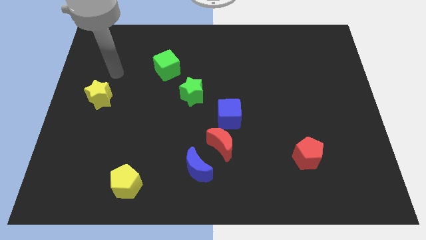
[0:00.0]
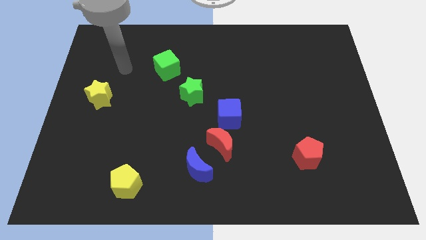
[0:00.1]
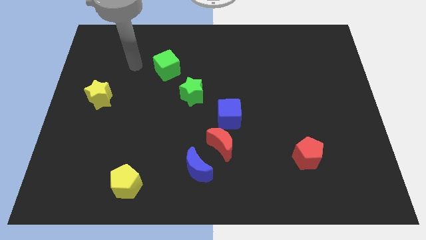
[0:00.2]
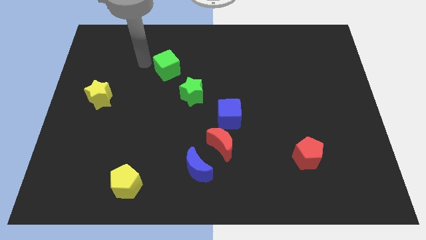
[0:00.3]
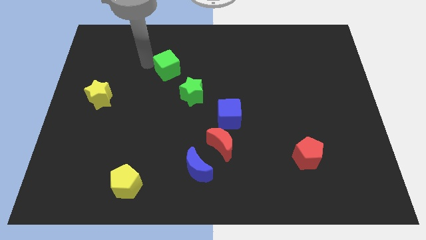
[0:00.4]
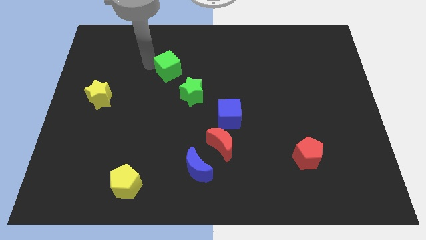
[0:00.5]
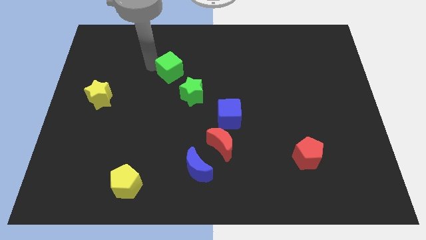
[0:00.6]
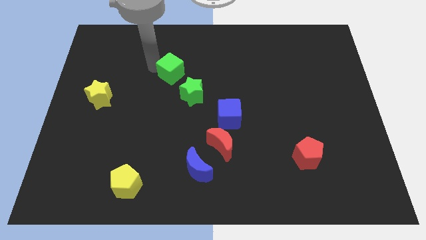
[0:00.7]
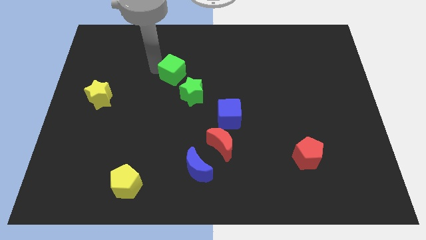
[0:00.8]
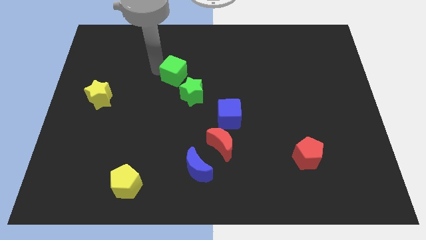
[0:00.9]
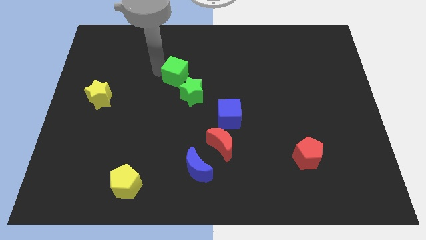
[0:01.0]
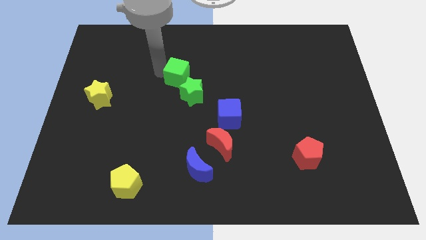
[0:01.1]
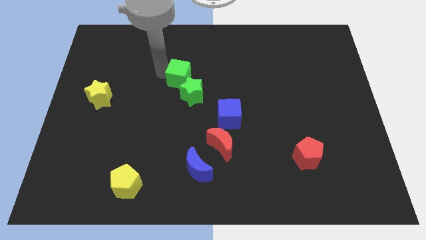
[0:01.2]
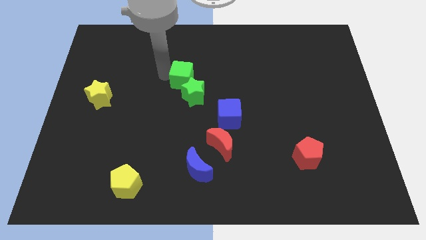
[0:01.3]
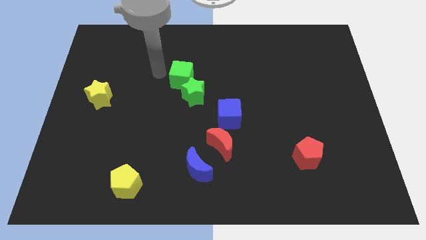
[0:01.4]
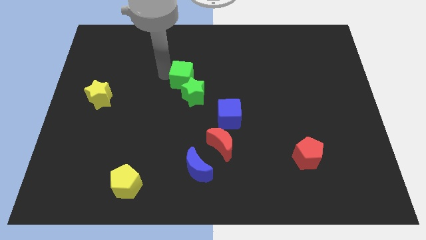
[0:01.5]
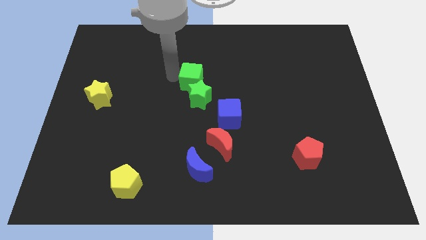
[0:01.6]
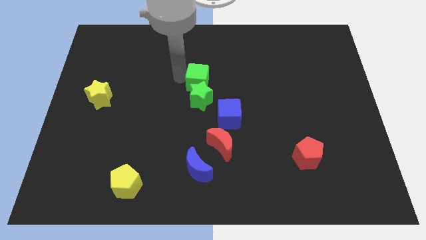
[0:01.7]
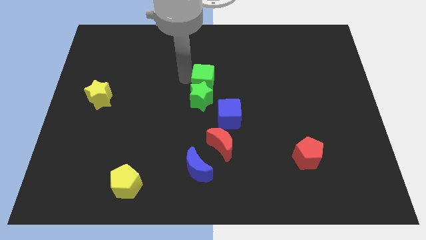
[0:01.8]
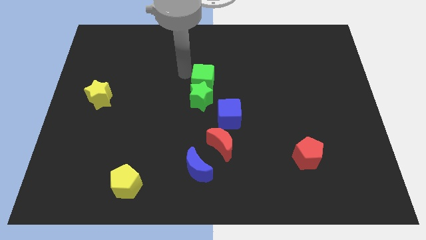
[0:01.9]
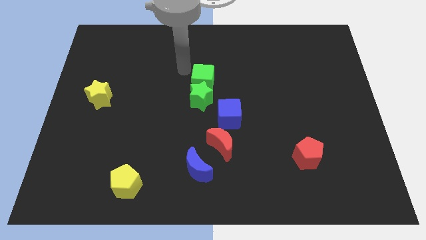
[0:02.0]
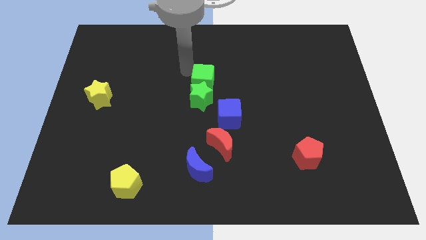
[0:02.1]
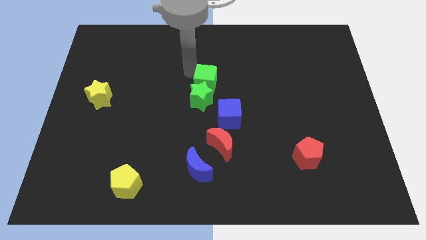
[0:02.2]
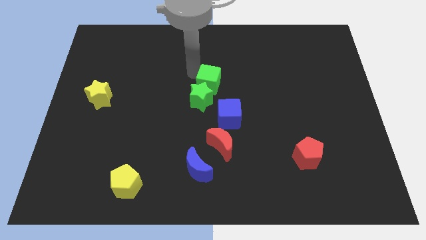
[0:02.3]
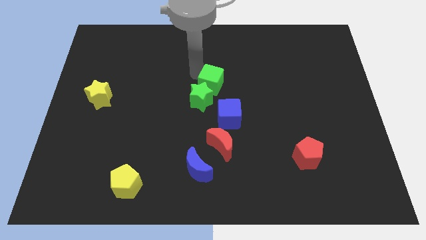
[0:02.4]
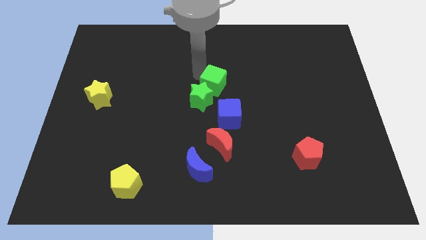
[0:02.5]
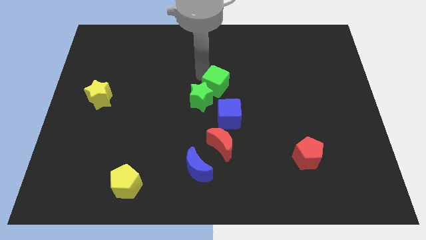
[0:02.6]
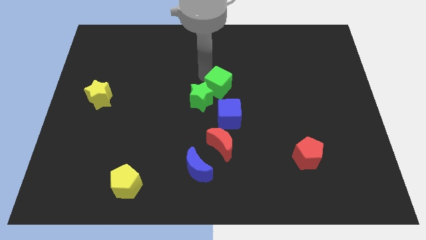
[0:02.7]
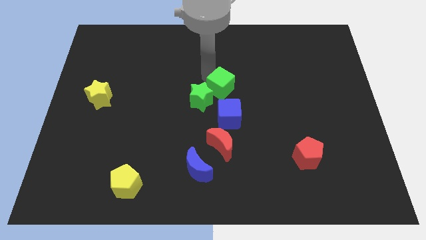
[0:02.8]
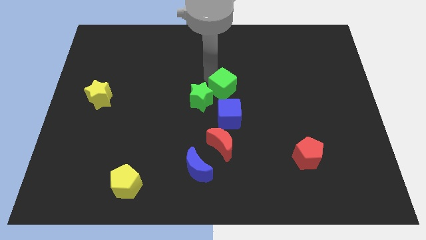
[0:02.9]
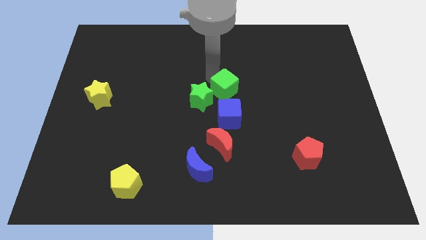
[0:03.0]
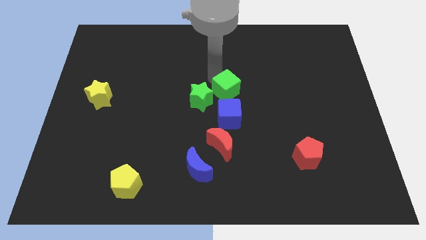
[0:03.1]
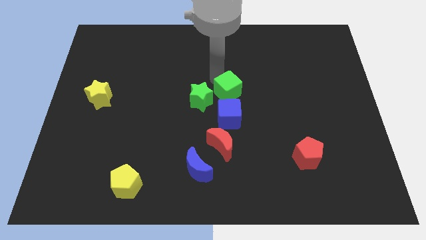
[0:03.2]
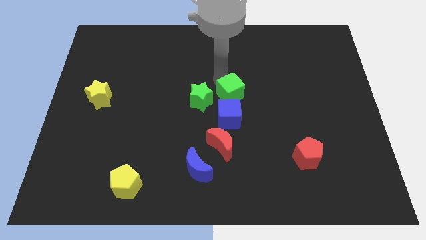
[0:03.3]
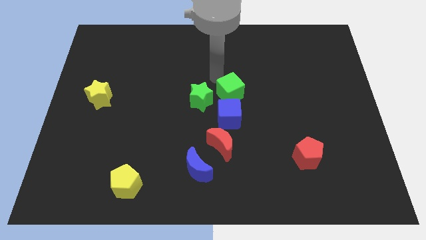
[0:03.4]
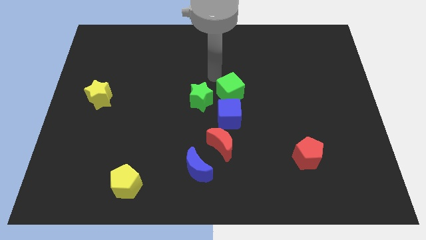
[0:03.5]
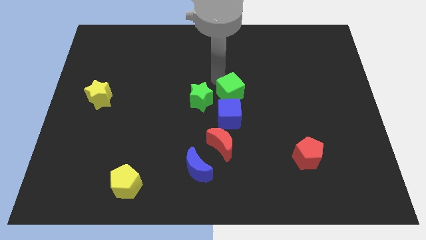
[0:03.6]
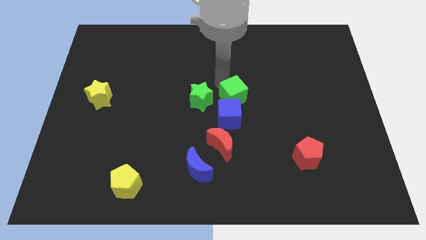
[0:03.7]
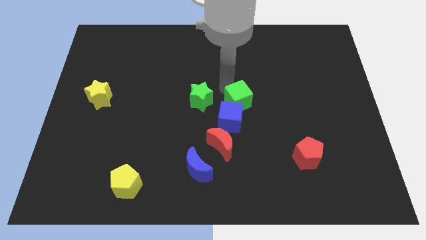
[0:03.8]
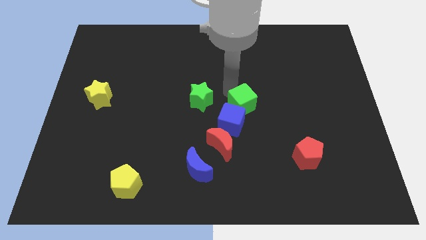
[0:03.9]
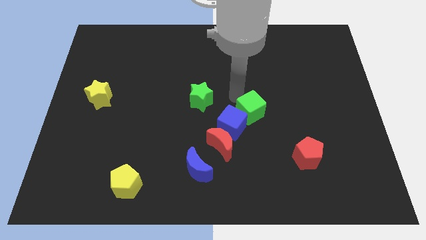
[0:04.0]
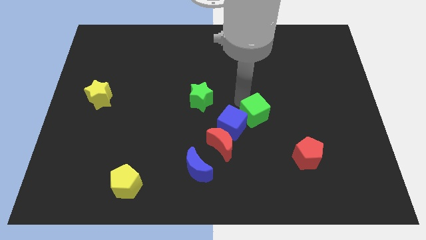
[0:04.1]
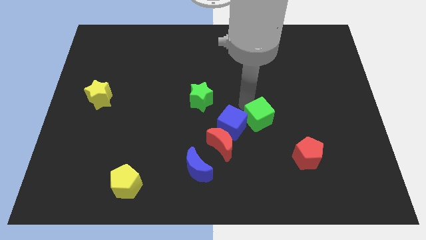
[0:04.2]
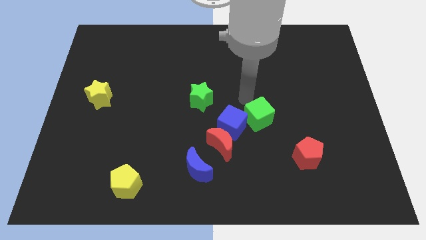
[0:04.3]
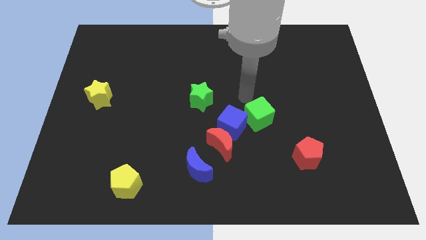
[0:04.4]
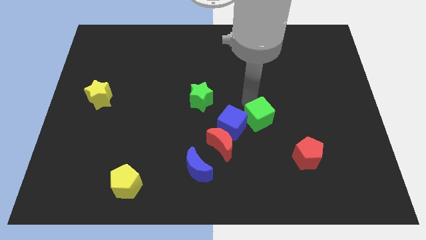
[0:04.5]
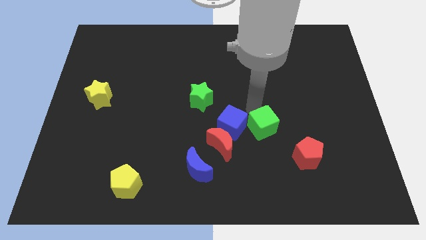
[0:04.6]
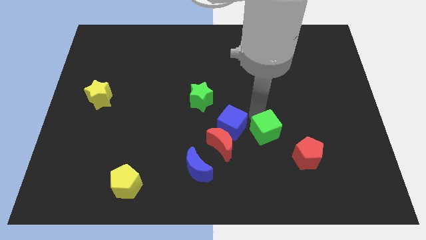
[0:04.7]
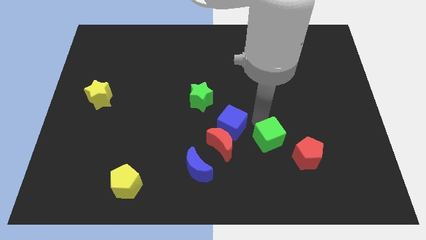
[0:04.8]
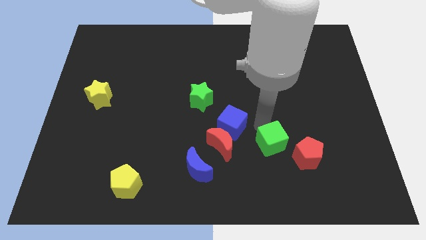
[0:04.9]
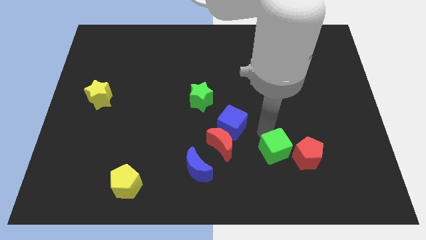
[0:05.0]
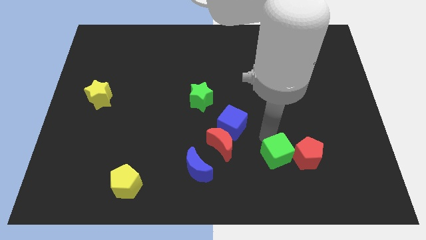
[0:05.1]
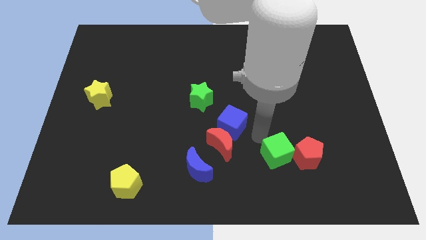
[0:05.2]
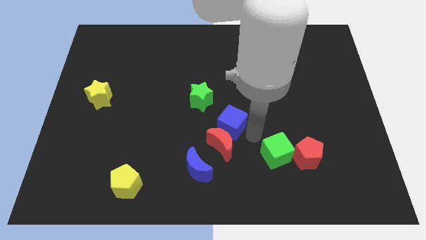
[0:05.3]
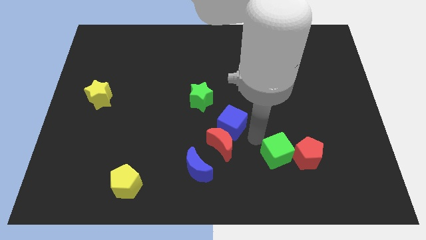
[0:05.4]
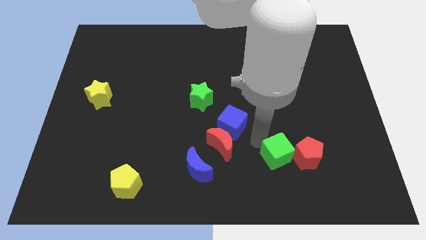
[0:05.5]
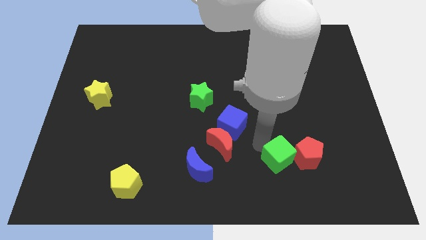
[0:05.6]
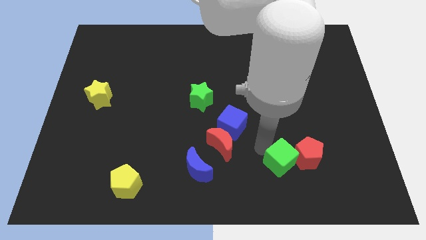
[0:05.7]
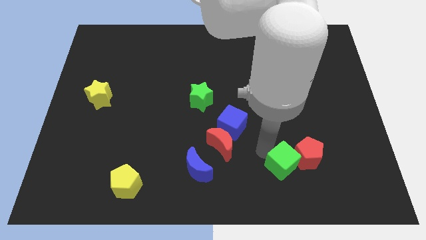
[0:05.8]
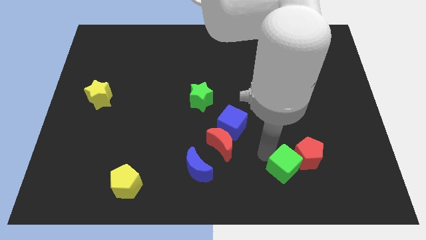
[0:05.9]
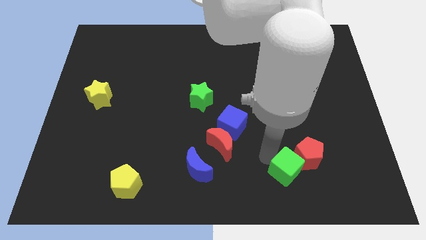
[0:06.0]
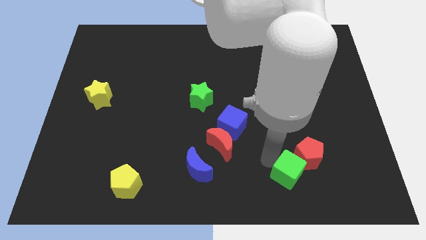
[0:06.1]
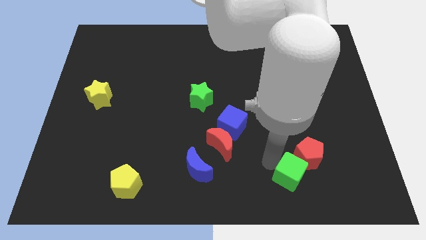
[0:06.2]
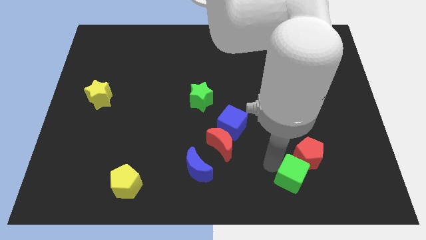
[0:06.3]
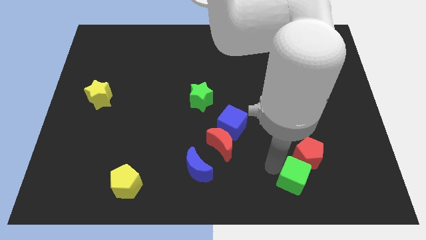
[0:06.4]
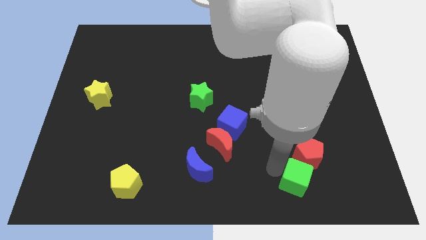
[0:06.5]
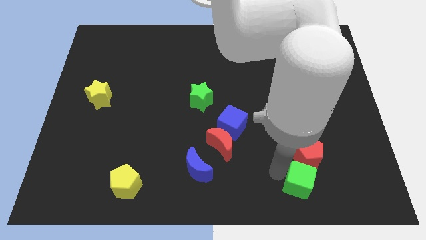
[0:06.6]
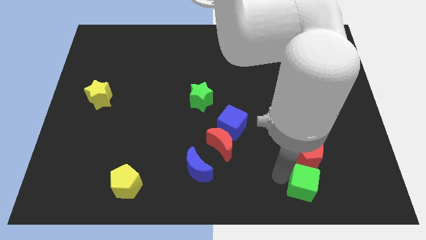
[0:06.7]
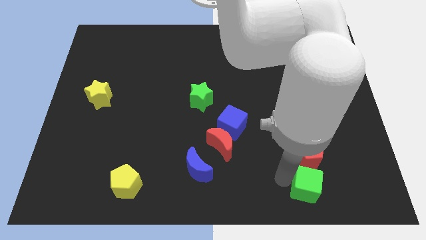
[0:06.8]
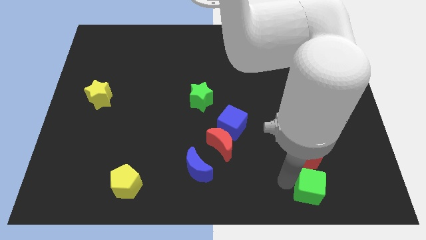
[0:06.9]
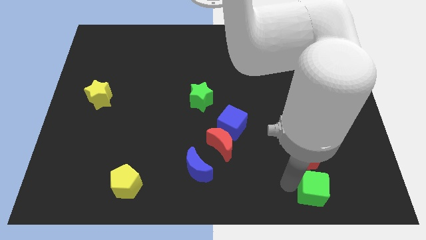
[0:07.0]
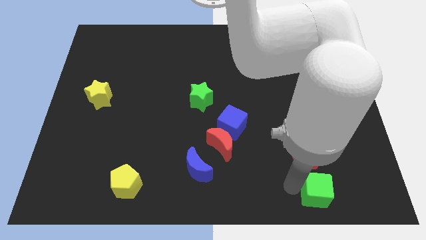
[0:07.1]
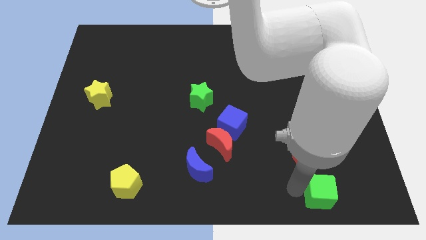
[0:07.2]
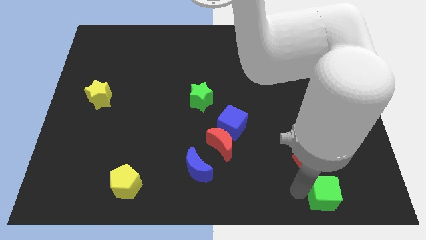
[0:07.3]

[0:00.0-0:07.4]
slide the green cube to the bottom right of the red pentagon
